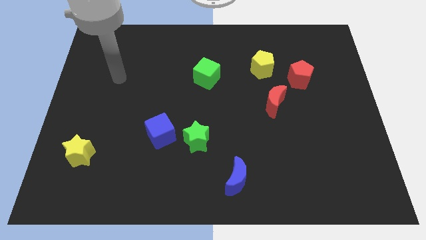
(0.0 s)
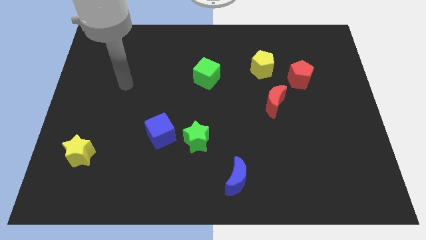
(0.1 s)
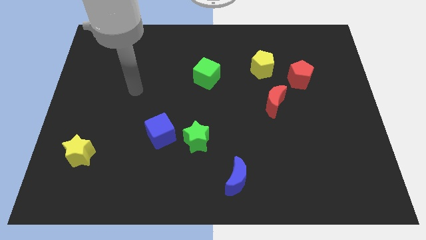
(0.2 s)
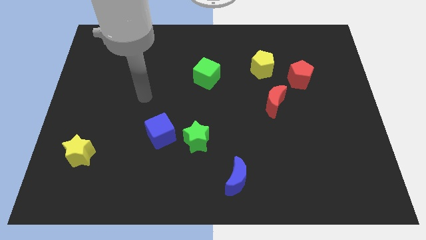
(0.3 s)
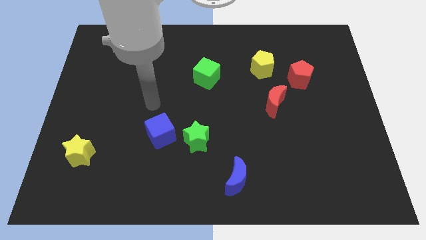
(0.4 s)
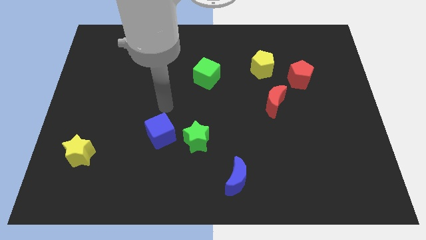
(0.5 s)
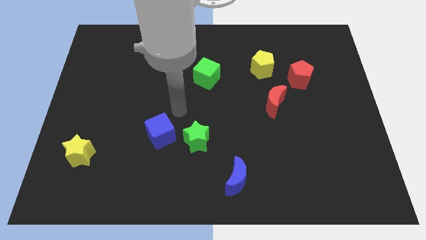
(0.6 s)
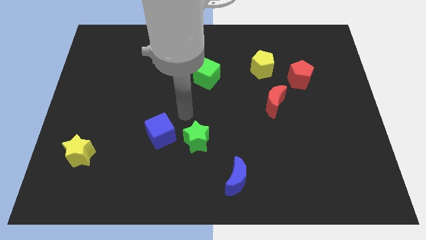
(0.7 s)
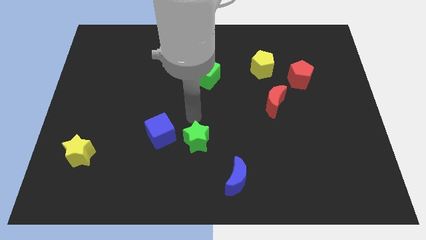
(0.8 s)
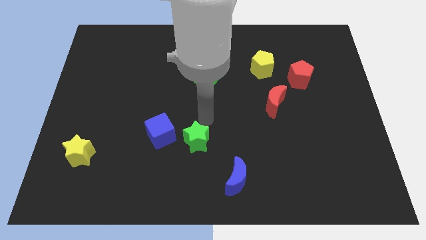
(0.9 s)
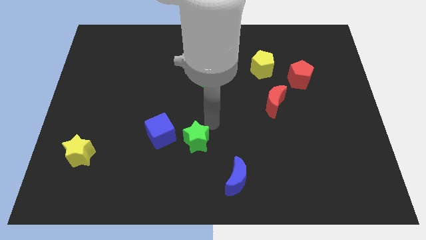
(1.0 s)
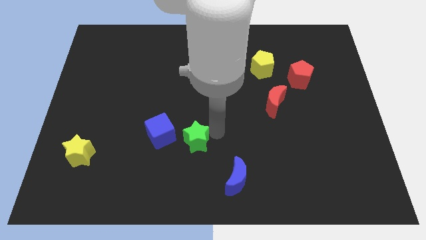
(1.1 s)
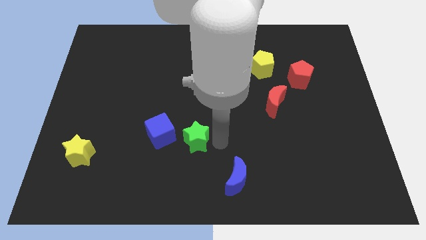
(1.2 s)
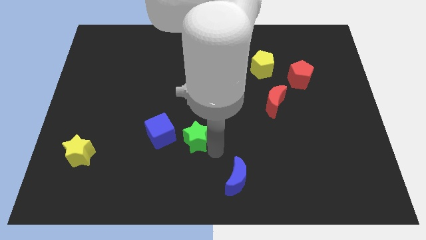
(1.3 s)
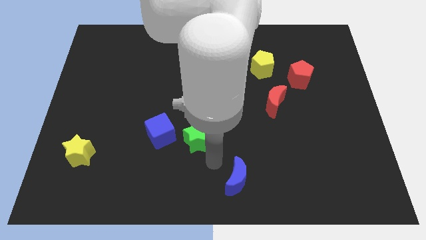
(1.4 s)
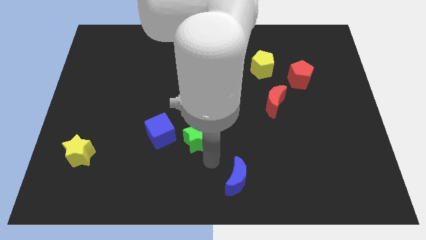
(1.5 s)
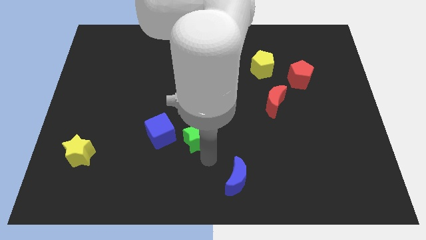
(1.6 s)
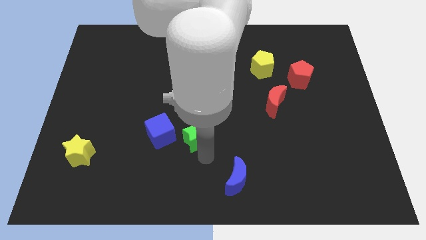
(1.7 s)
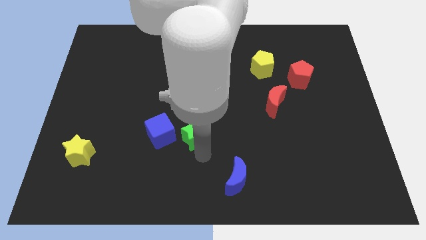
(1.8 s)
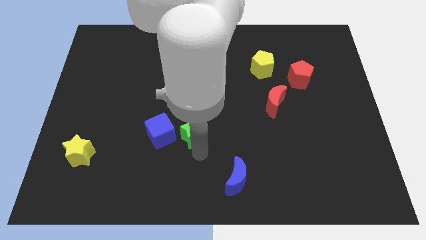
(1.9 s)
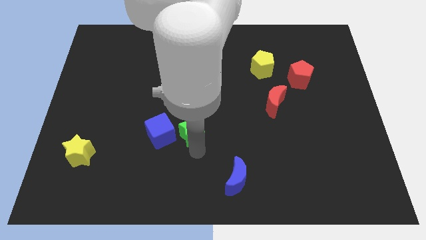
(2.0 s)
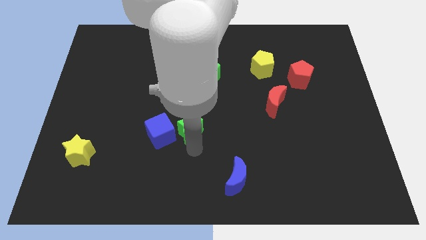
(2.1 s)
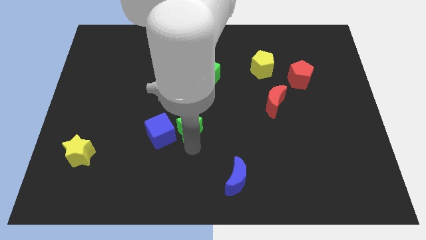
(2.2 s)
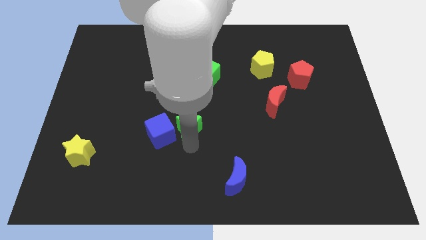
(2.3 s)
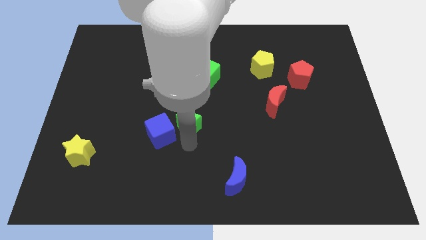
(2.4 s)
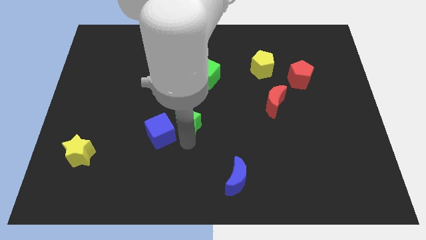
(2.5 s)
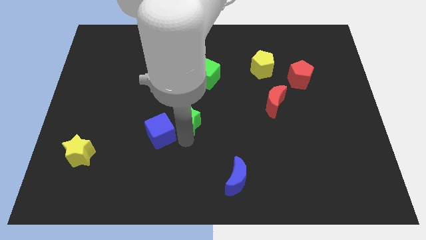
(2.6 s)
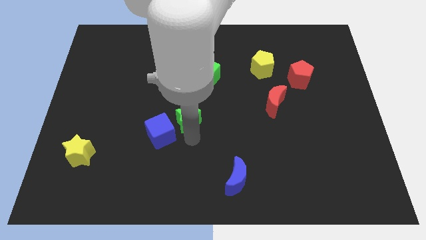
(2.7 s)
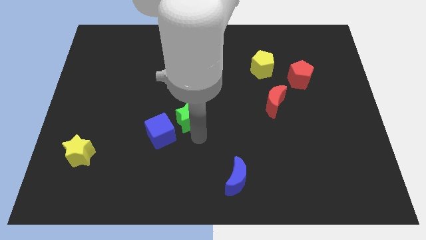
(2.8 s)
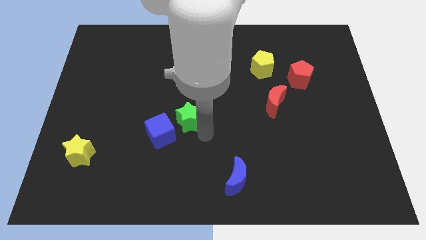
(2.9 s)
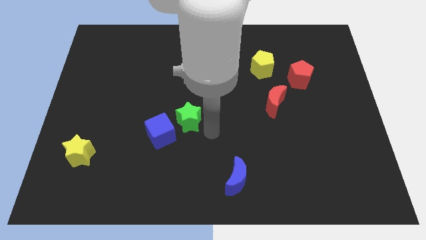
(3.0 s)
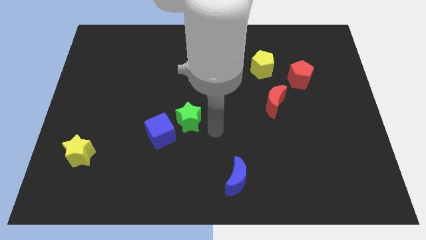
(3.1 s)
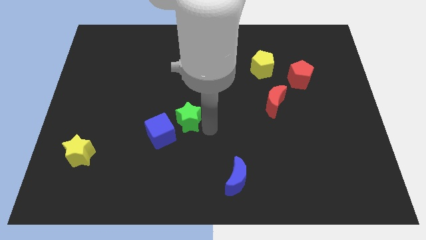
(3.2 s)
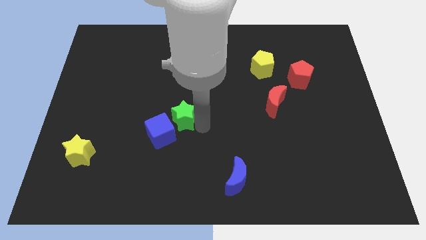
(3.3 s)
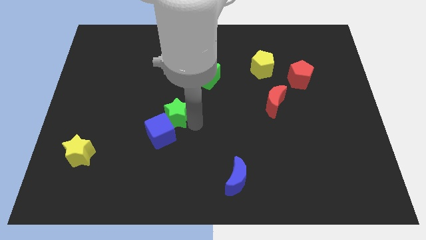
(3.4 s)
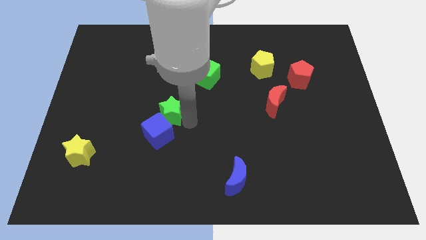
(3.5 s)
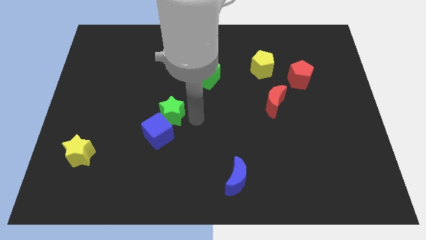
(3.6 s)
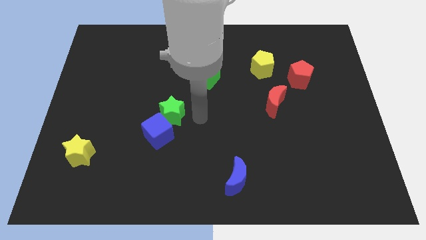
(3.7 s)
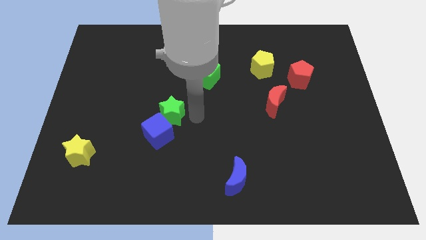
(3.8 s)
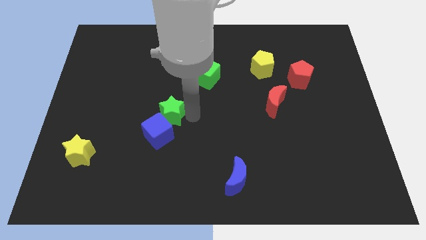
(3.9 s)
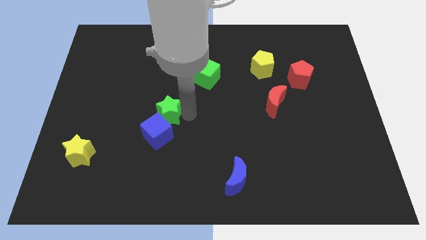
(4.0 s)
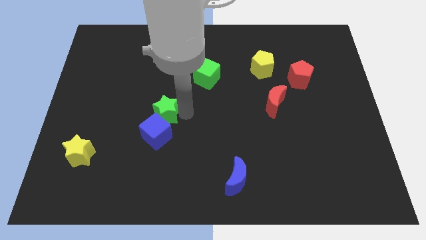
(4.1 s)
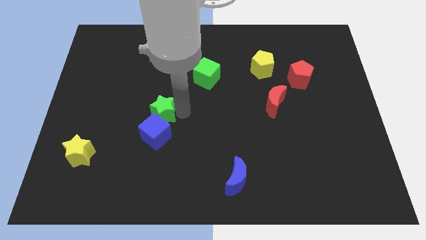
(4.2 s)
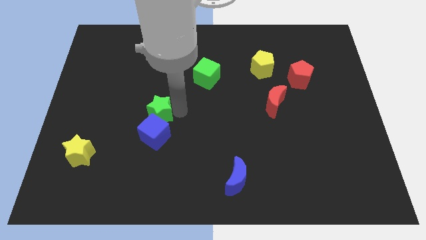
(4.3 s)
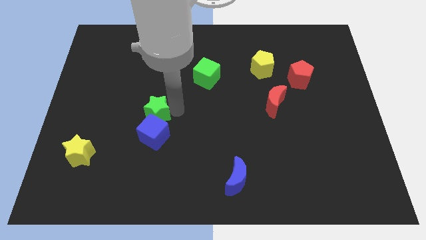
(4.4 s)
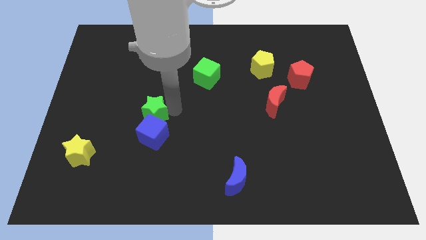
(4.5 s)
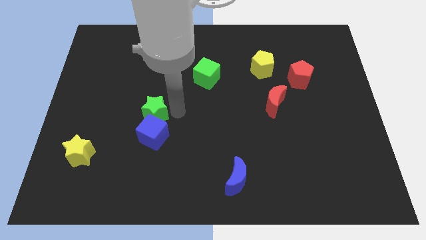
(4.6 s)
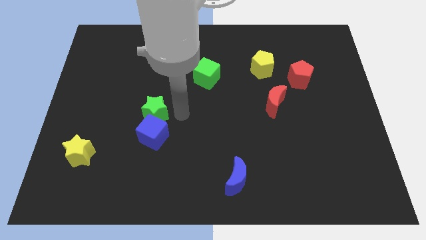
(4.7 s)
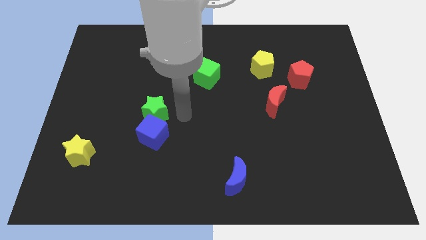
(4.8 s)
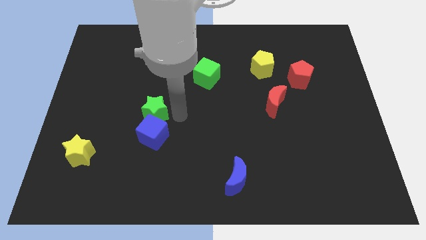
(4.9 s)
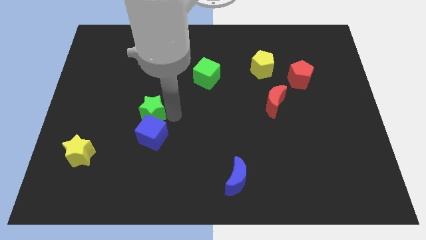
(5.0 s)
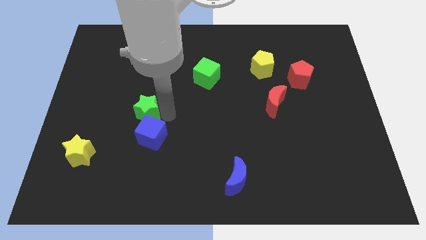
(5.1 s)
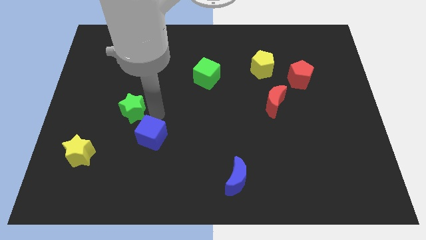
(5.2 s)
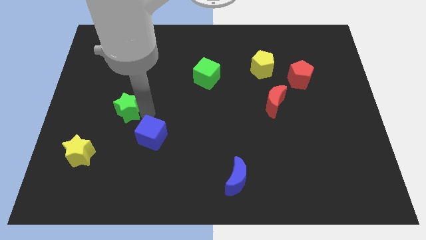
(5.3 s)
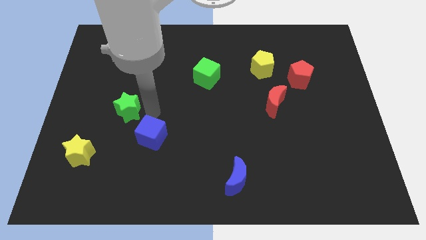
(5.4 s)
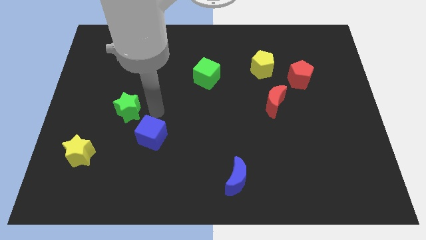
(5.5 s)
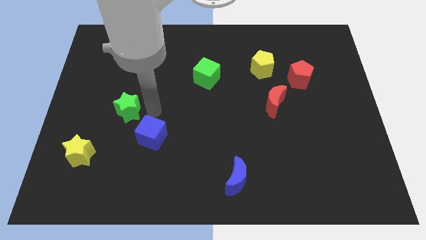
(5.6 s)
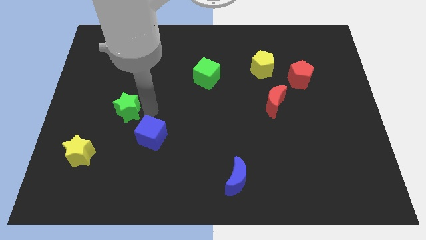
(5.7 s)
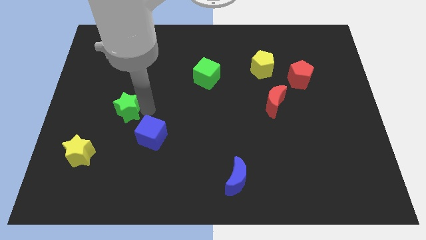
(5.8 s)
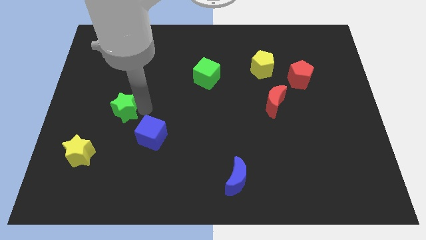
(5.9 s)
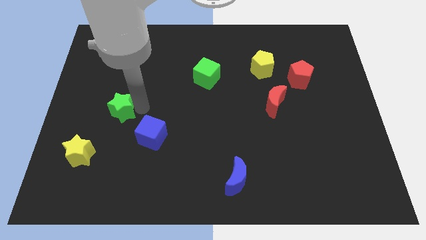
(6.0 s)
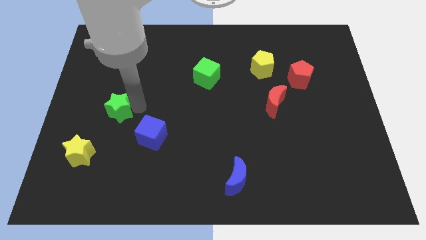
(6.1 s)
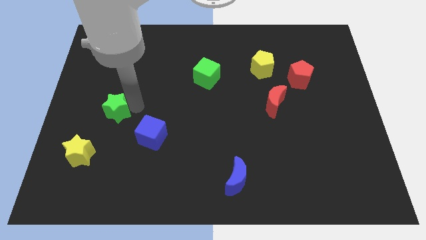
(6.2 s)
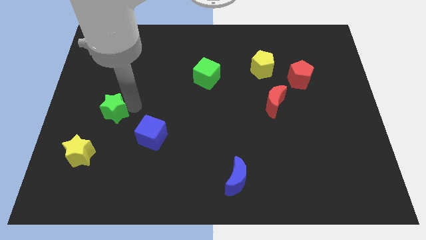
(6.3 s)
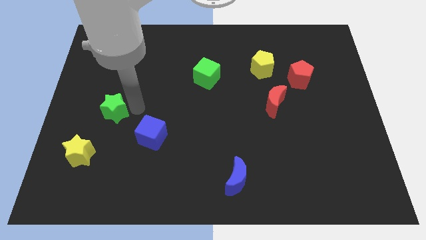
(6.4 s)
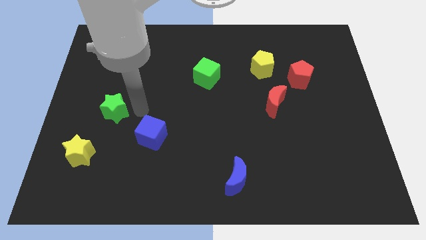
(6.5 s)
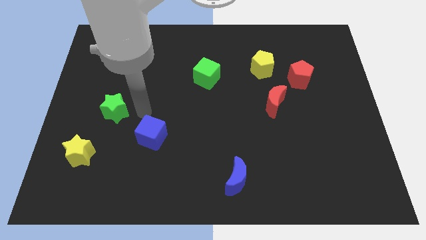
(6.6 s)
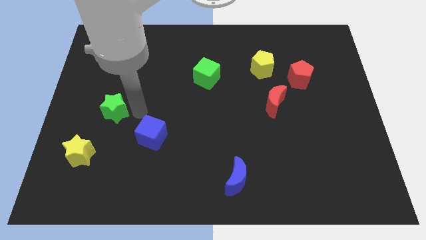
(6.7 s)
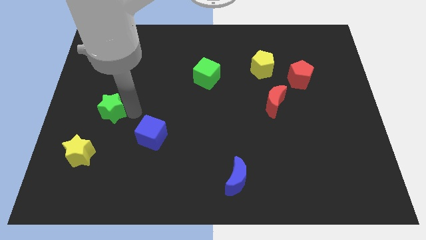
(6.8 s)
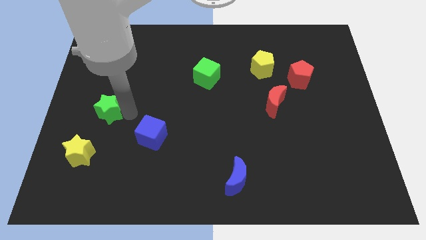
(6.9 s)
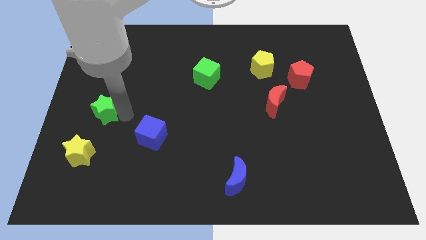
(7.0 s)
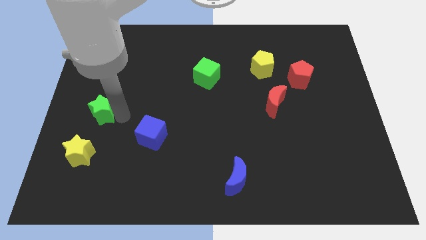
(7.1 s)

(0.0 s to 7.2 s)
put the green star to the left side
